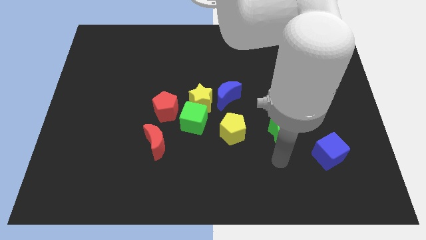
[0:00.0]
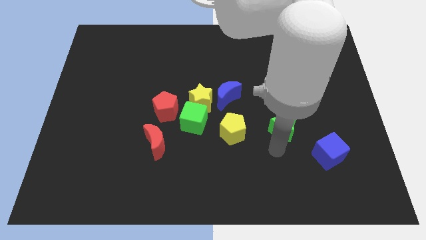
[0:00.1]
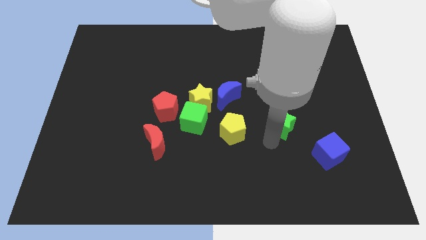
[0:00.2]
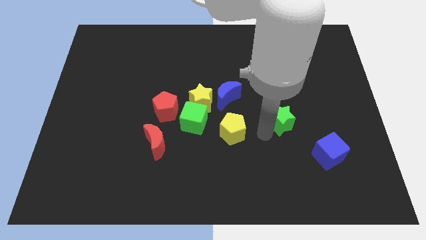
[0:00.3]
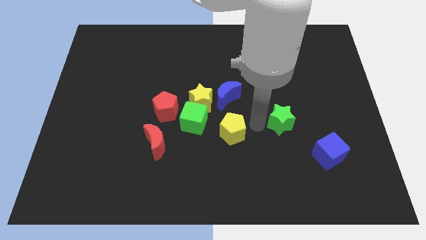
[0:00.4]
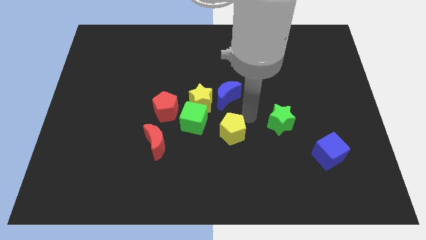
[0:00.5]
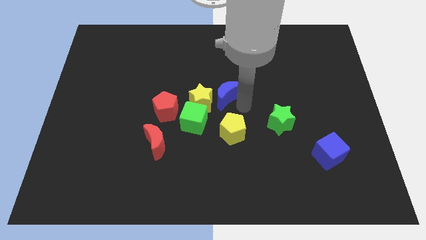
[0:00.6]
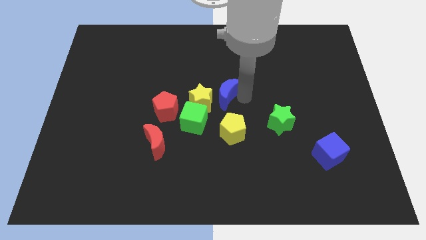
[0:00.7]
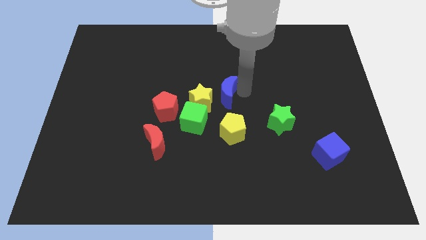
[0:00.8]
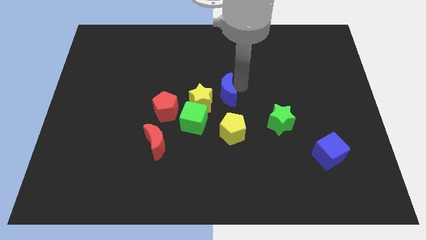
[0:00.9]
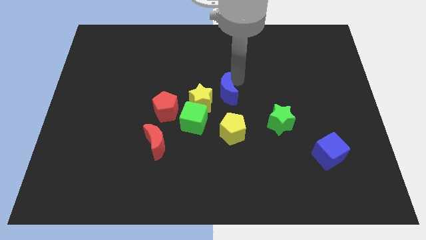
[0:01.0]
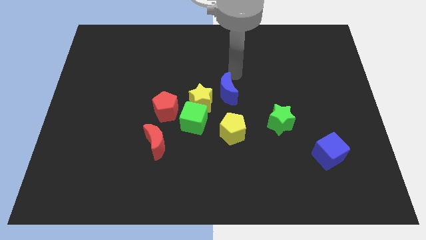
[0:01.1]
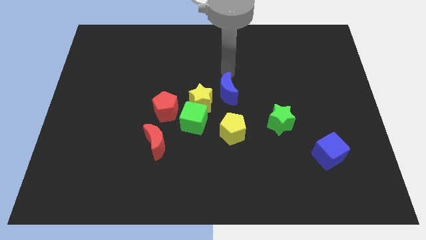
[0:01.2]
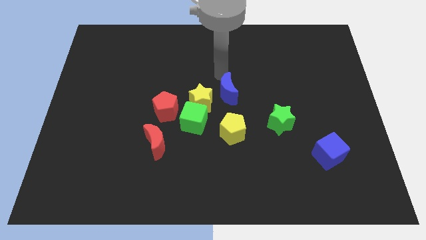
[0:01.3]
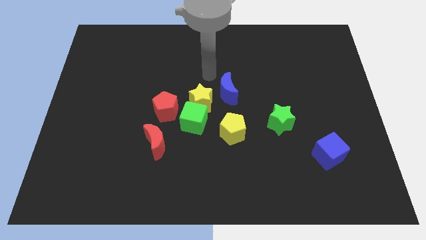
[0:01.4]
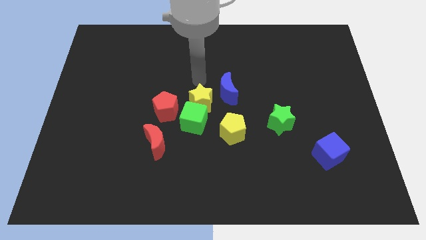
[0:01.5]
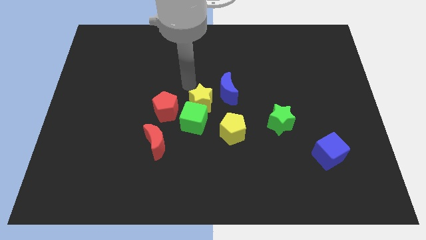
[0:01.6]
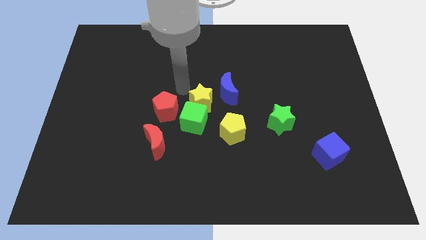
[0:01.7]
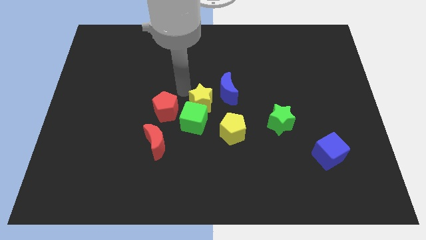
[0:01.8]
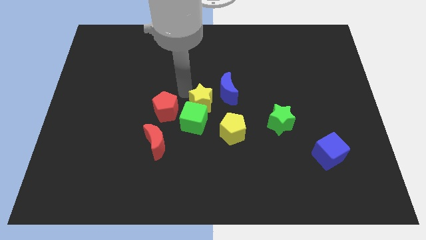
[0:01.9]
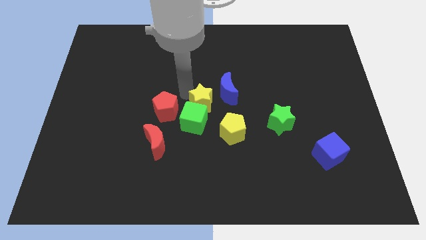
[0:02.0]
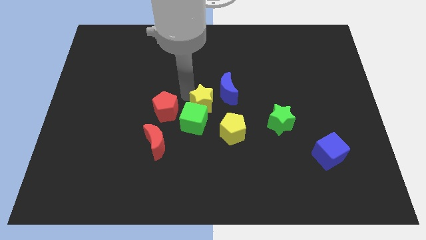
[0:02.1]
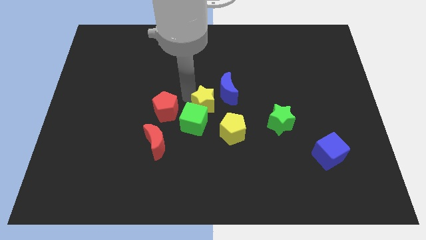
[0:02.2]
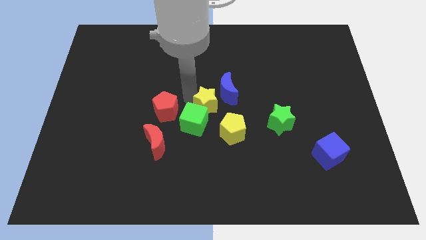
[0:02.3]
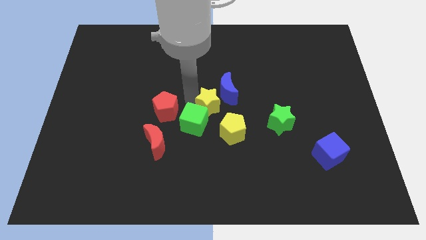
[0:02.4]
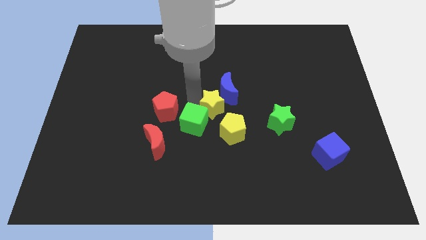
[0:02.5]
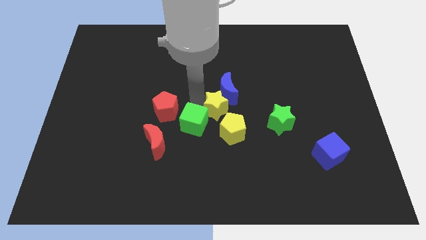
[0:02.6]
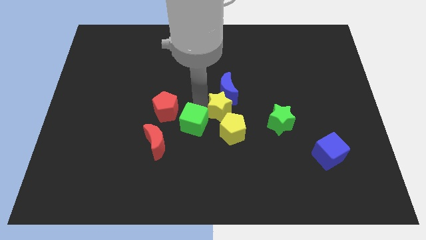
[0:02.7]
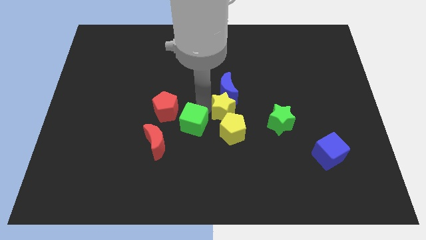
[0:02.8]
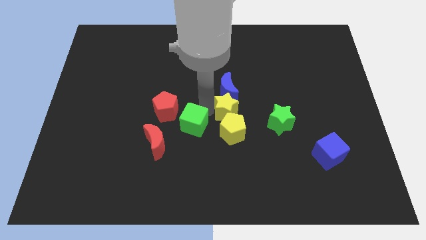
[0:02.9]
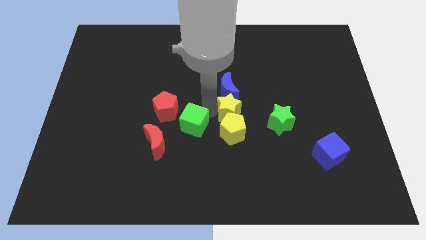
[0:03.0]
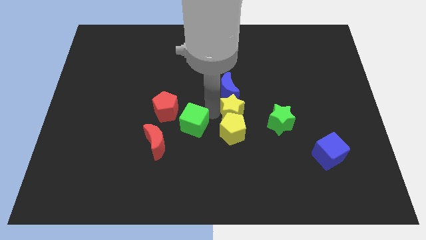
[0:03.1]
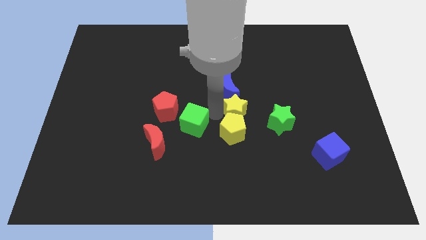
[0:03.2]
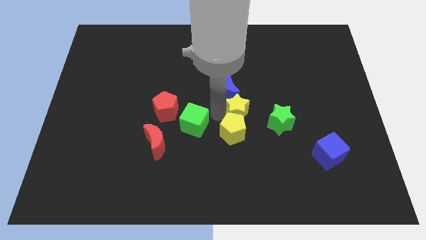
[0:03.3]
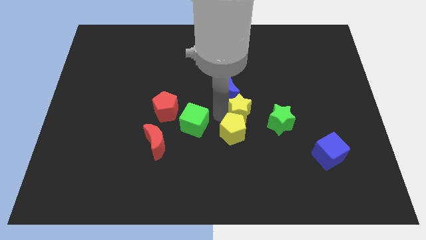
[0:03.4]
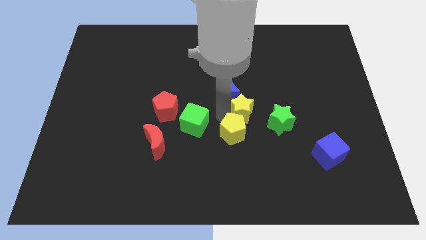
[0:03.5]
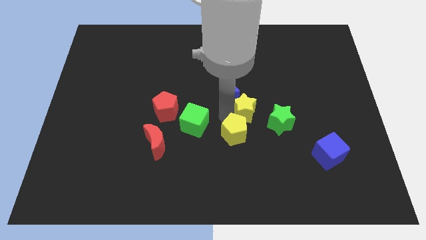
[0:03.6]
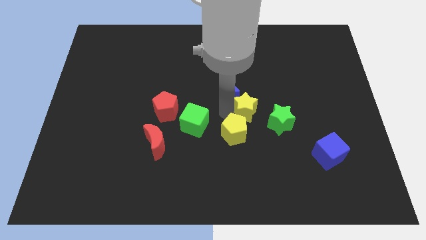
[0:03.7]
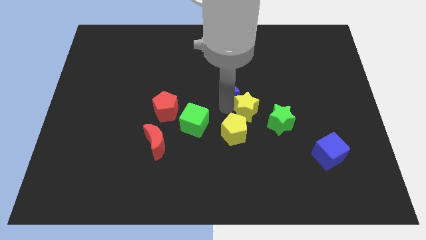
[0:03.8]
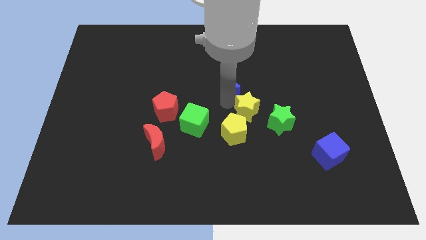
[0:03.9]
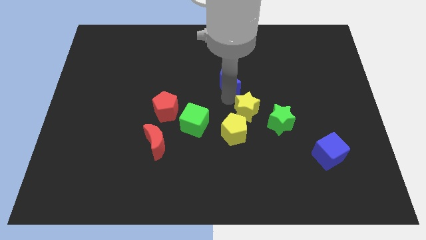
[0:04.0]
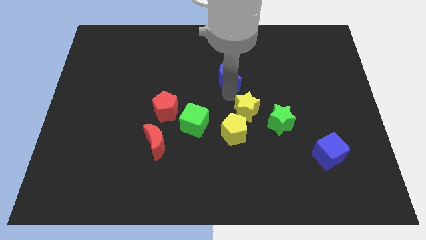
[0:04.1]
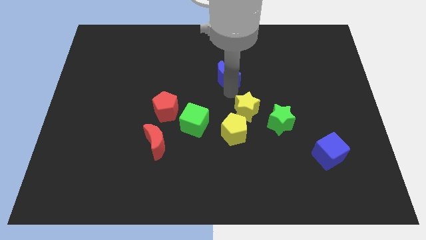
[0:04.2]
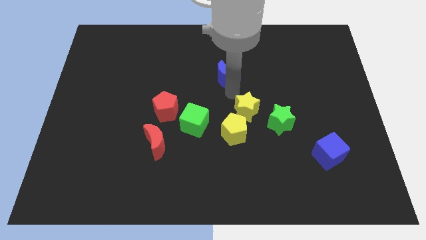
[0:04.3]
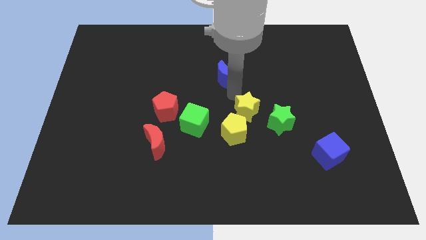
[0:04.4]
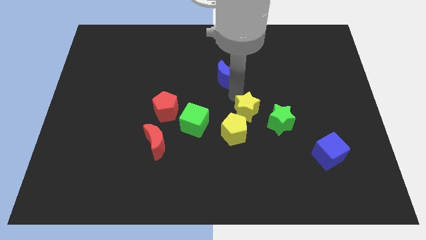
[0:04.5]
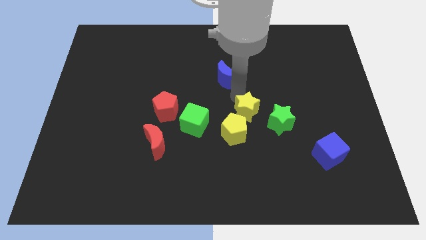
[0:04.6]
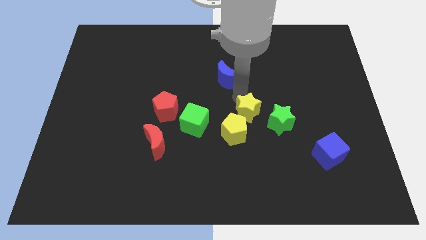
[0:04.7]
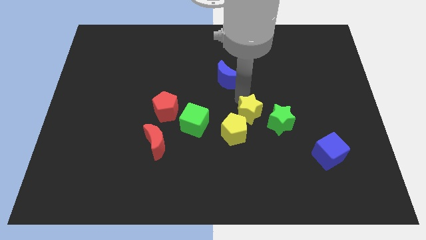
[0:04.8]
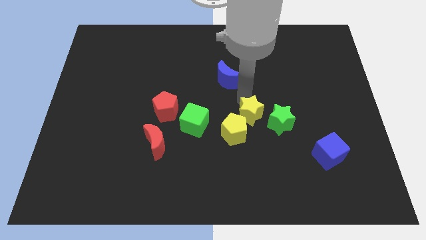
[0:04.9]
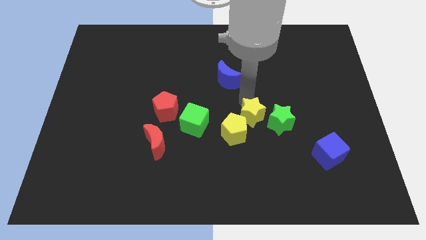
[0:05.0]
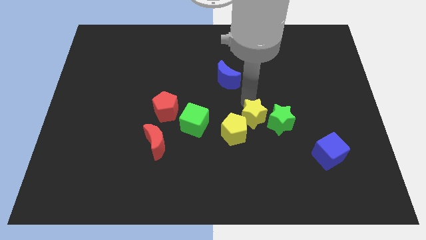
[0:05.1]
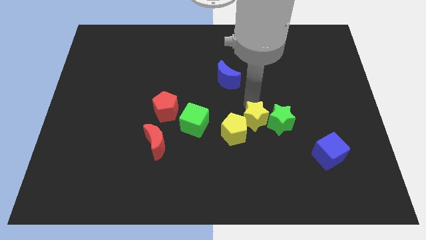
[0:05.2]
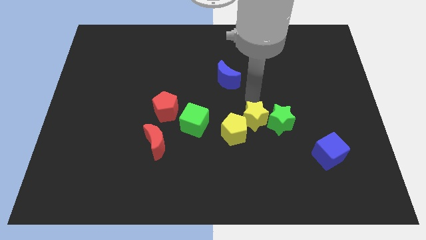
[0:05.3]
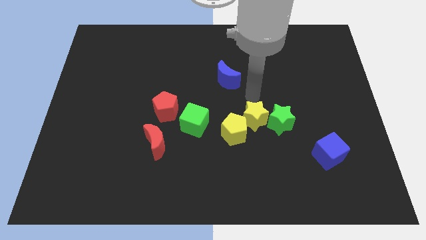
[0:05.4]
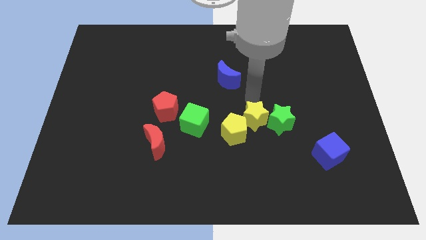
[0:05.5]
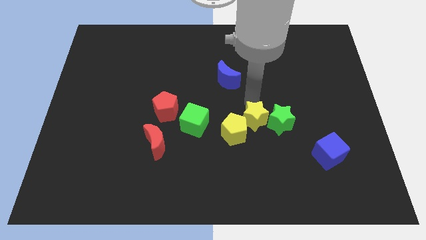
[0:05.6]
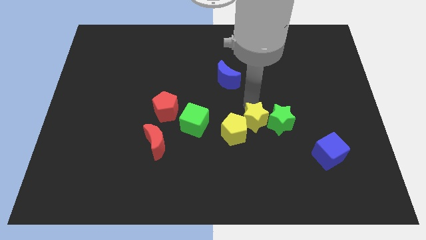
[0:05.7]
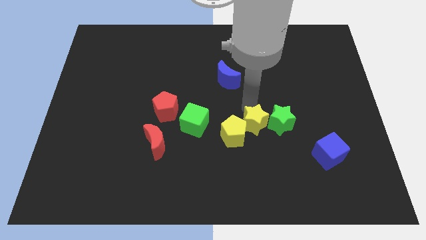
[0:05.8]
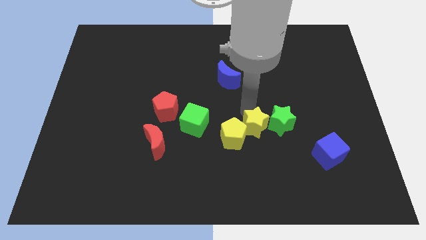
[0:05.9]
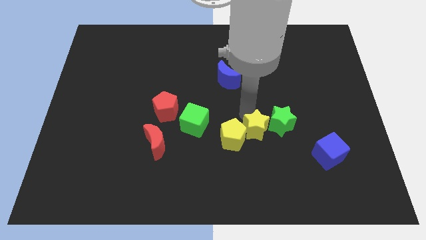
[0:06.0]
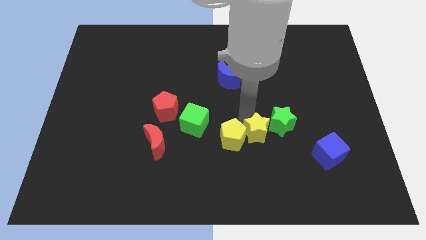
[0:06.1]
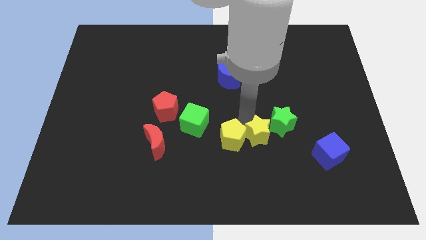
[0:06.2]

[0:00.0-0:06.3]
move the yellow star diagonally down and to the right of the yellow pentagon
